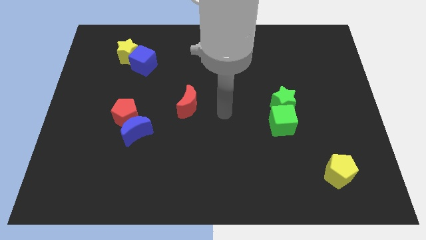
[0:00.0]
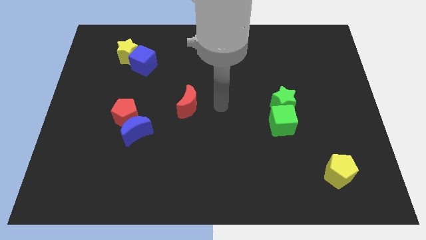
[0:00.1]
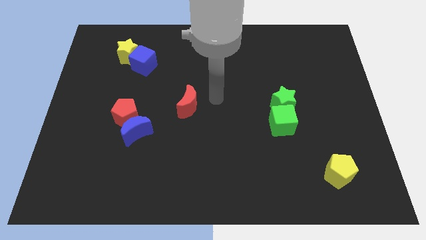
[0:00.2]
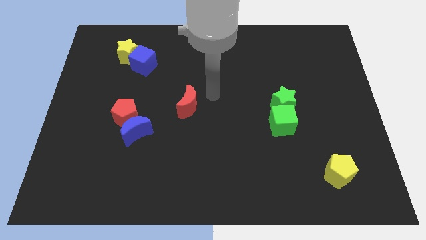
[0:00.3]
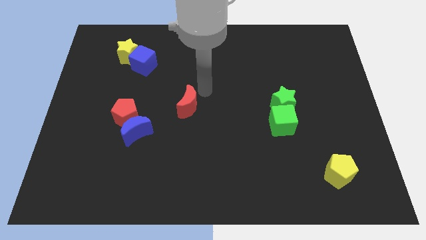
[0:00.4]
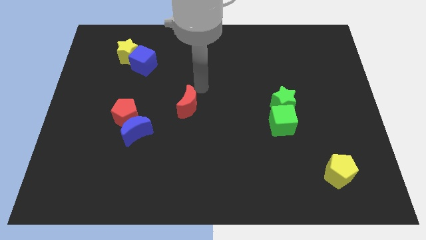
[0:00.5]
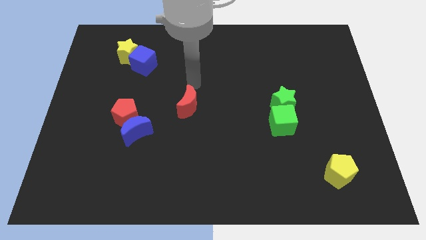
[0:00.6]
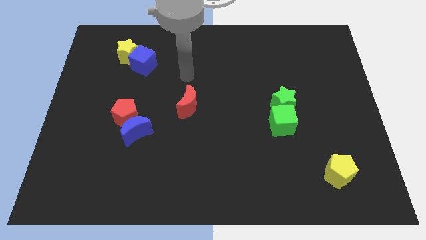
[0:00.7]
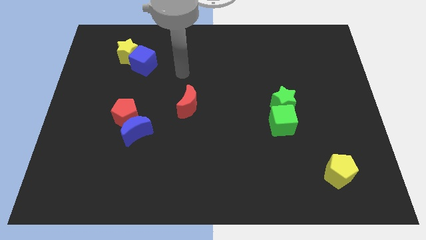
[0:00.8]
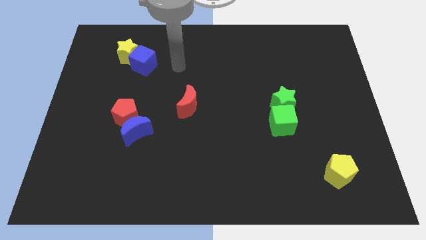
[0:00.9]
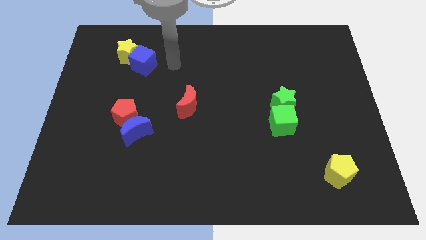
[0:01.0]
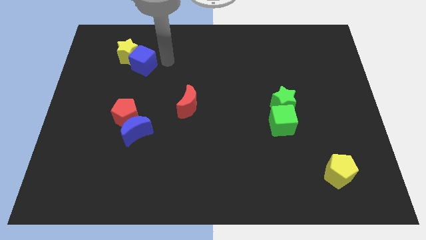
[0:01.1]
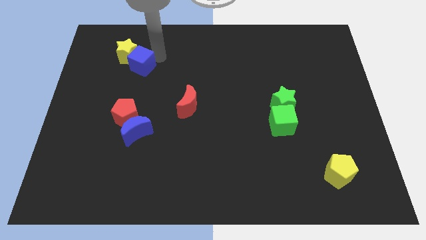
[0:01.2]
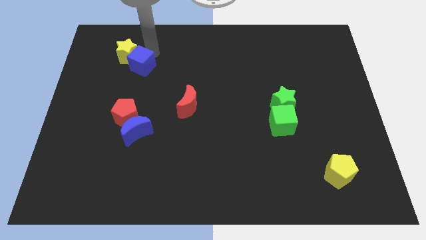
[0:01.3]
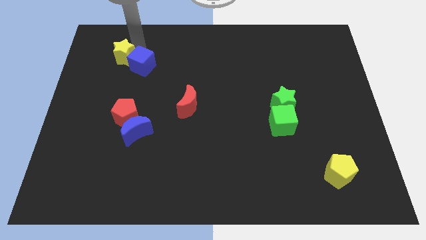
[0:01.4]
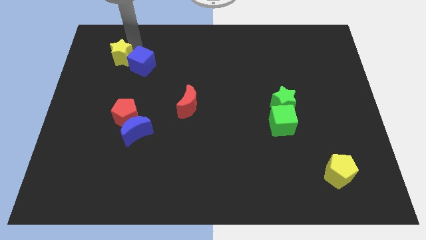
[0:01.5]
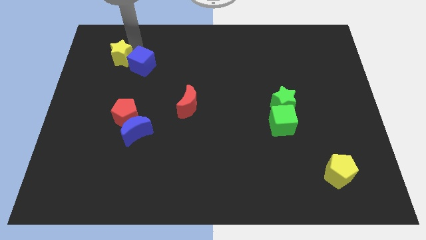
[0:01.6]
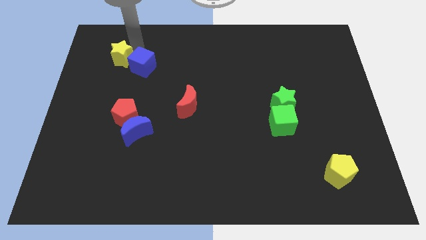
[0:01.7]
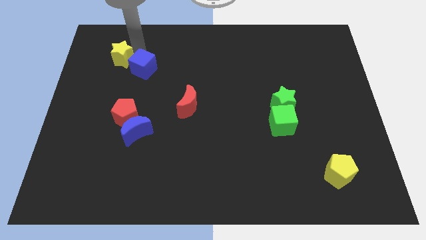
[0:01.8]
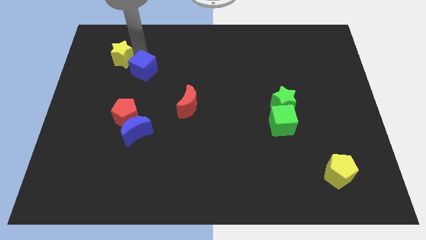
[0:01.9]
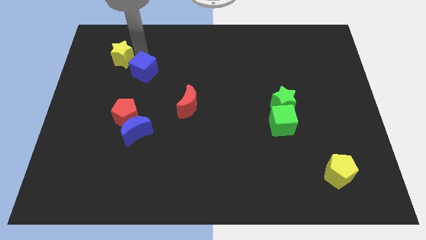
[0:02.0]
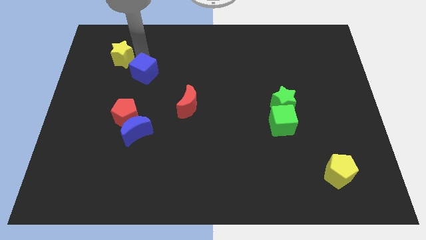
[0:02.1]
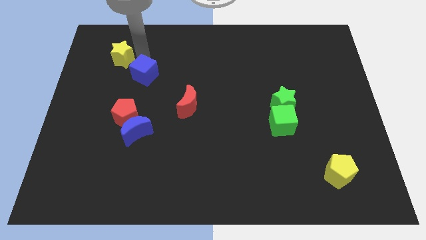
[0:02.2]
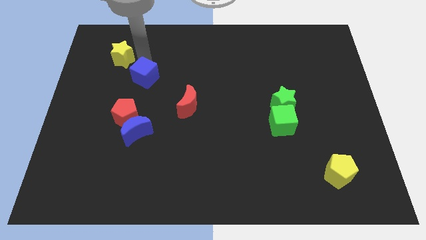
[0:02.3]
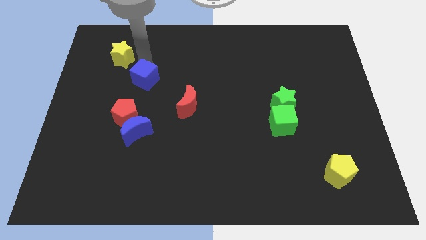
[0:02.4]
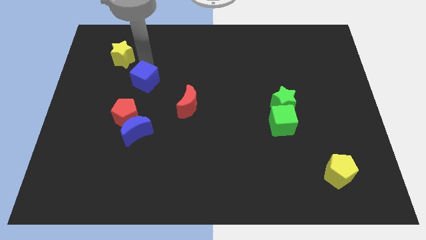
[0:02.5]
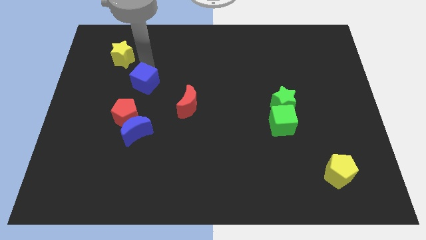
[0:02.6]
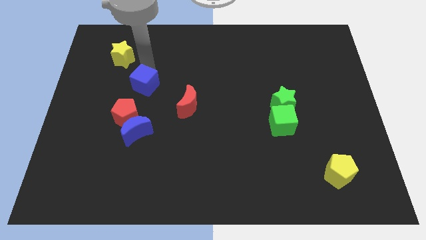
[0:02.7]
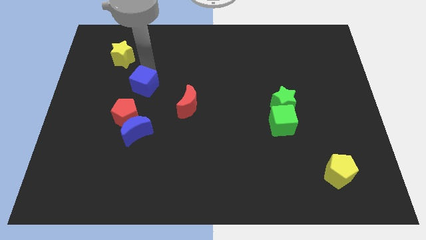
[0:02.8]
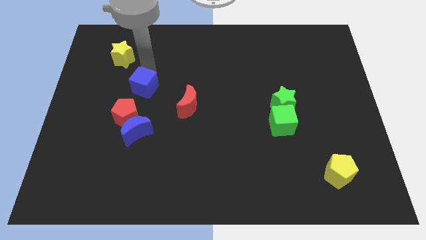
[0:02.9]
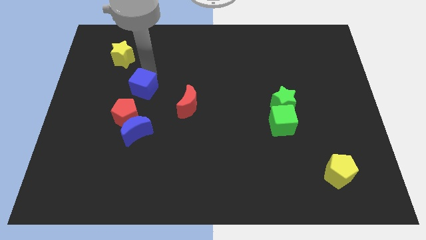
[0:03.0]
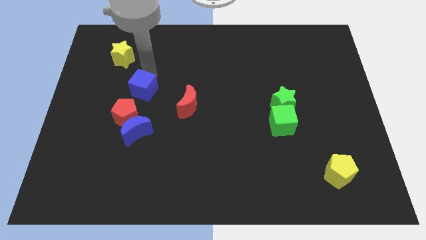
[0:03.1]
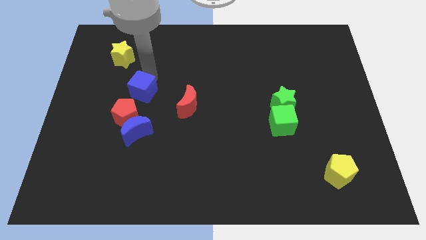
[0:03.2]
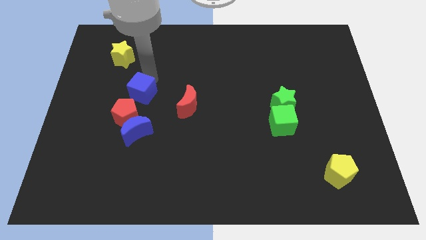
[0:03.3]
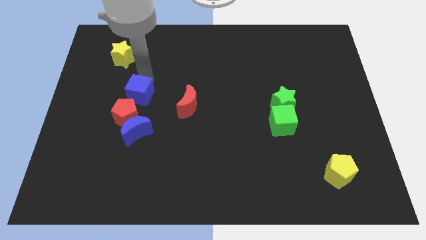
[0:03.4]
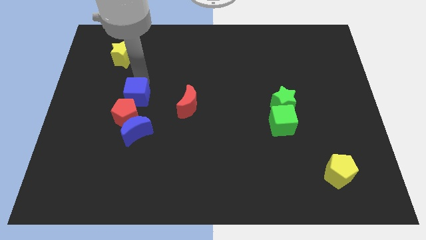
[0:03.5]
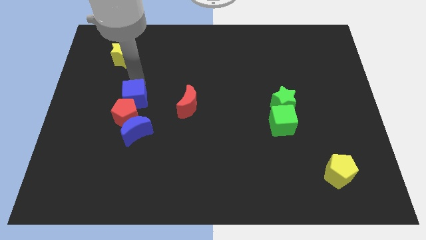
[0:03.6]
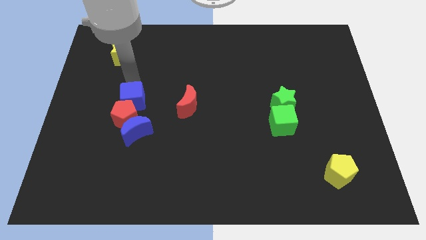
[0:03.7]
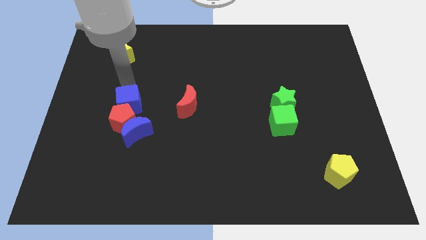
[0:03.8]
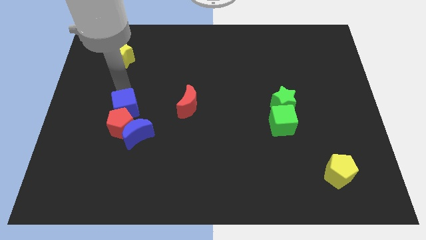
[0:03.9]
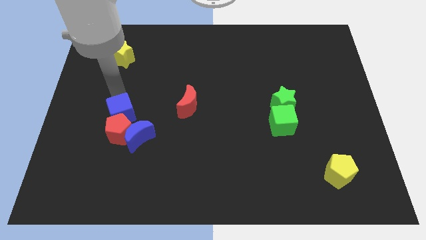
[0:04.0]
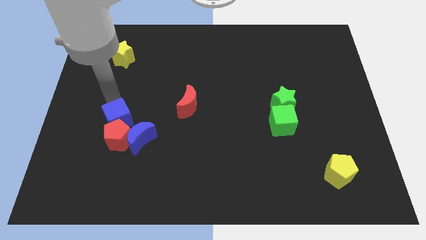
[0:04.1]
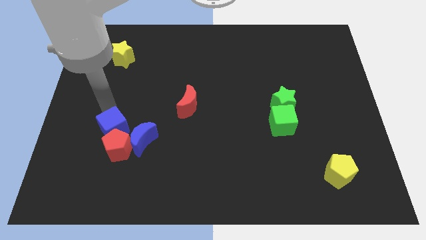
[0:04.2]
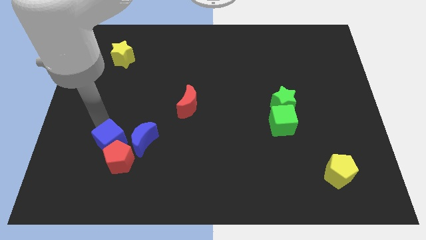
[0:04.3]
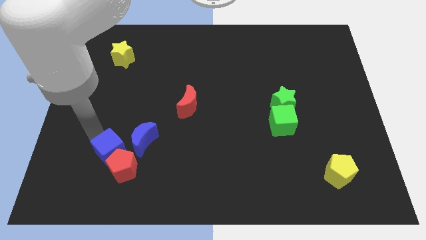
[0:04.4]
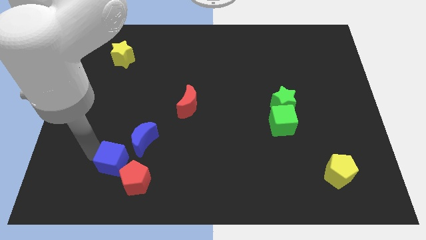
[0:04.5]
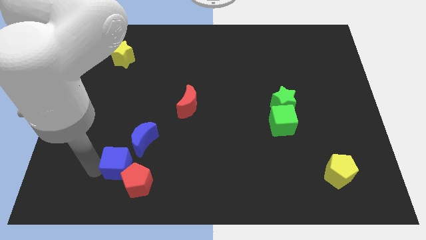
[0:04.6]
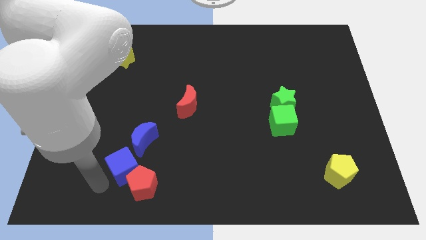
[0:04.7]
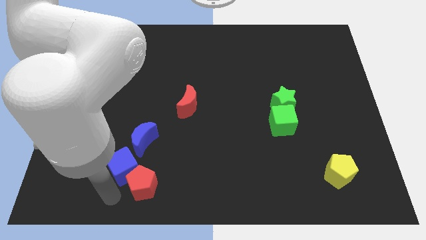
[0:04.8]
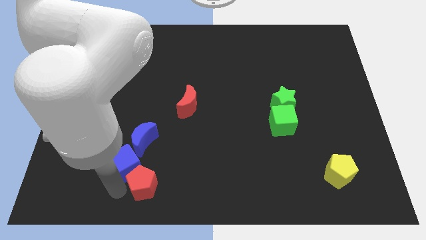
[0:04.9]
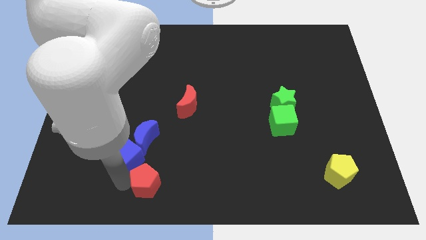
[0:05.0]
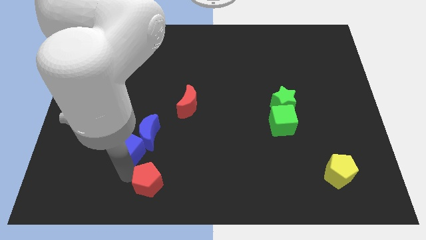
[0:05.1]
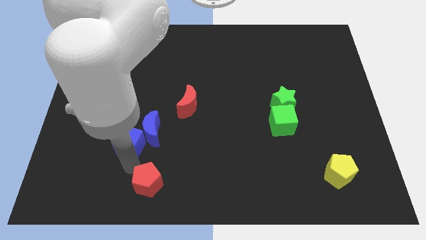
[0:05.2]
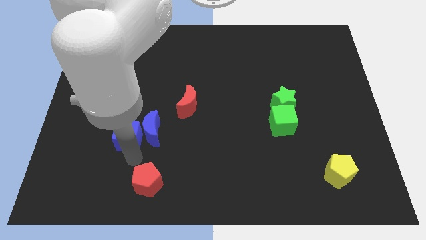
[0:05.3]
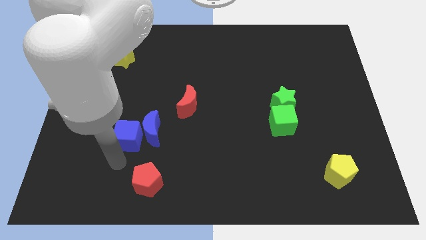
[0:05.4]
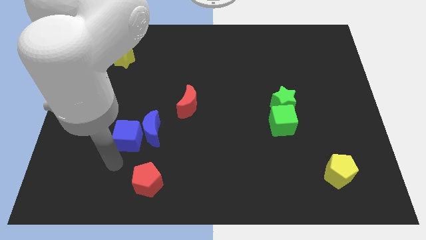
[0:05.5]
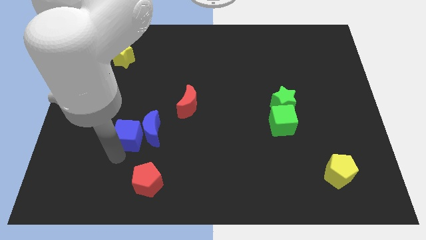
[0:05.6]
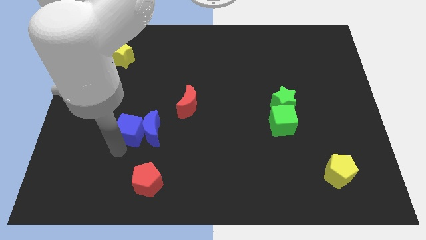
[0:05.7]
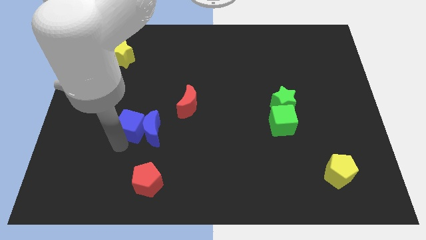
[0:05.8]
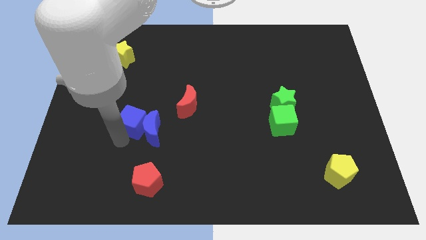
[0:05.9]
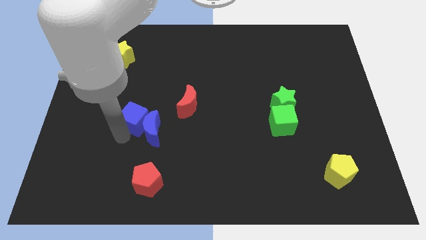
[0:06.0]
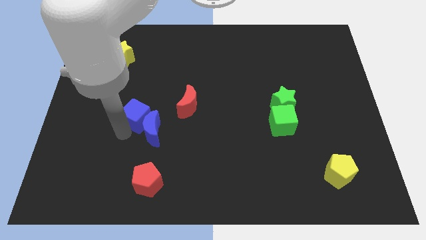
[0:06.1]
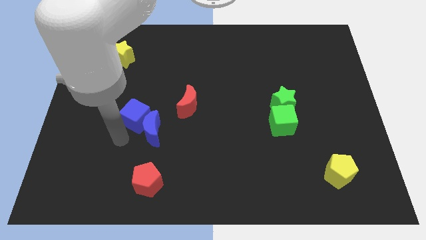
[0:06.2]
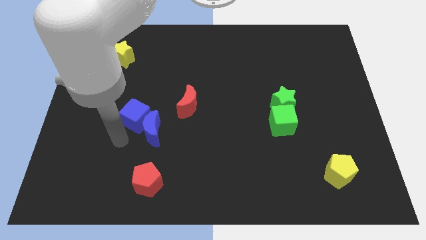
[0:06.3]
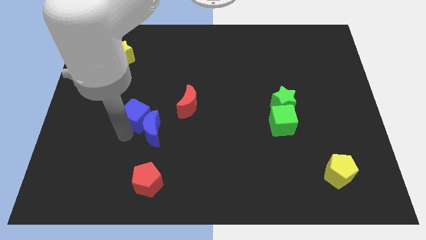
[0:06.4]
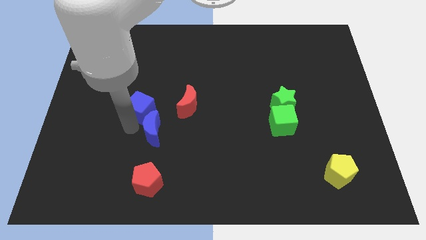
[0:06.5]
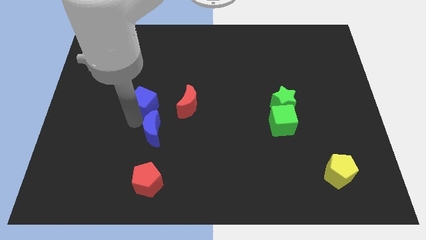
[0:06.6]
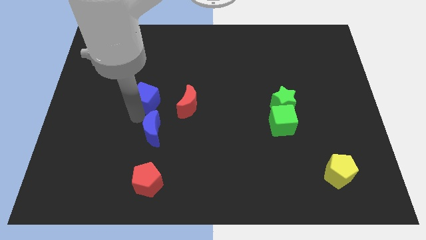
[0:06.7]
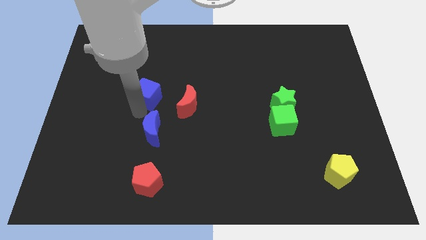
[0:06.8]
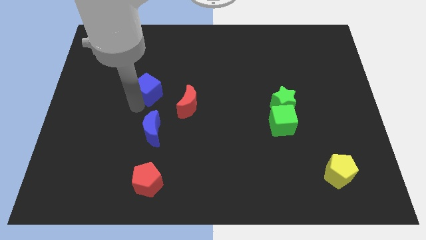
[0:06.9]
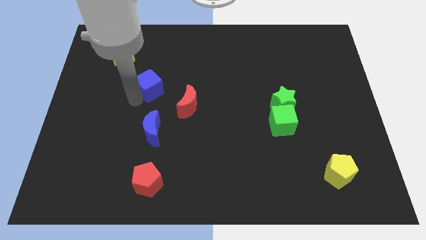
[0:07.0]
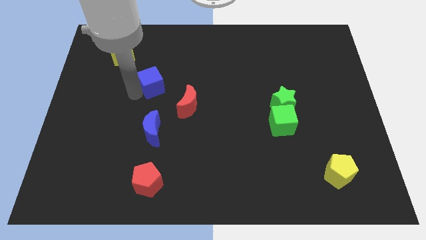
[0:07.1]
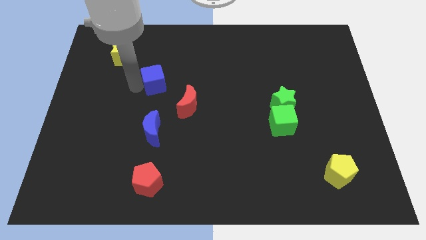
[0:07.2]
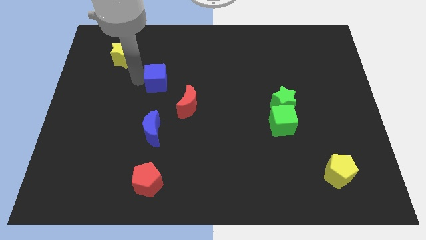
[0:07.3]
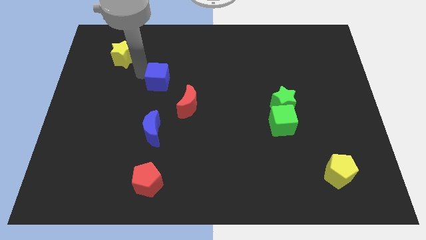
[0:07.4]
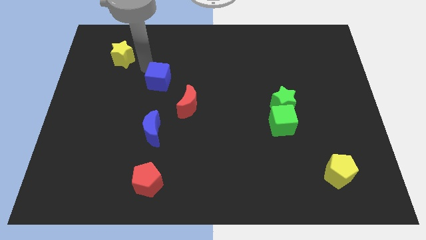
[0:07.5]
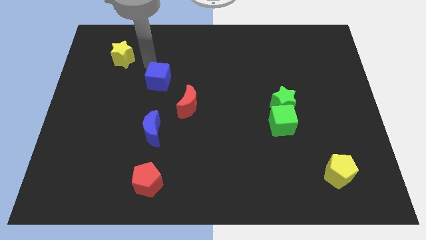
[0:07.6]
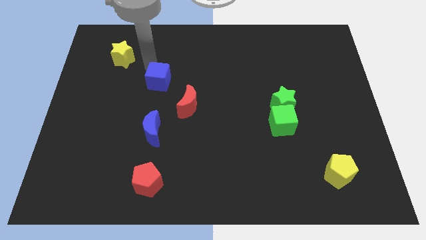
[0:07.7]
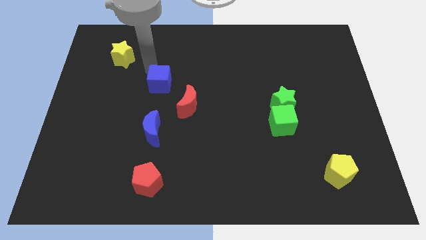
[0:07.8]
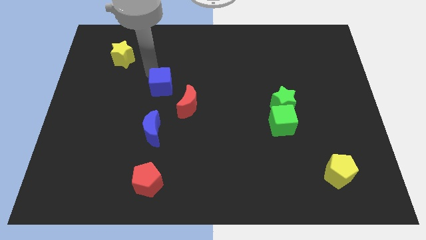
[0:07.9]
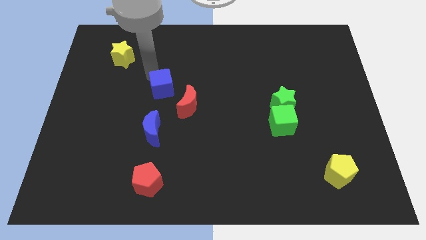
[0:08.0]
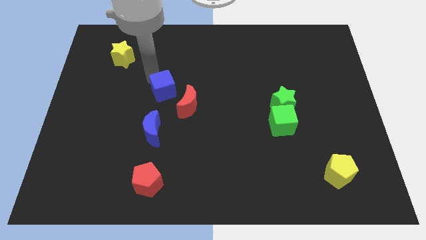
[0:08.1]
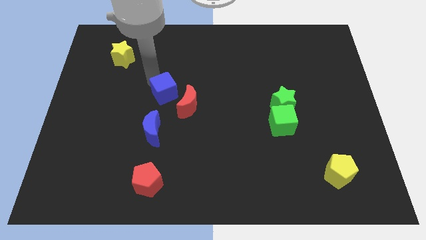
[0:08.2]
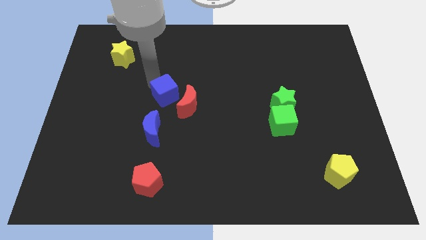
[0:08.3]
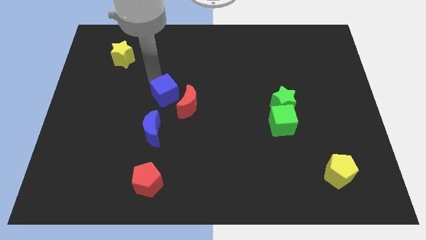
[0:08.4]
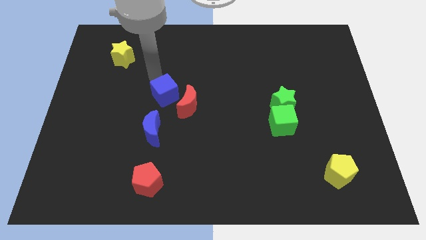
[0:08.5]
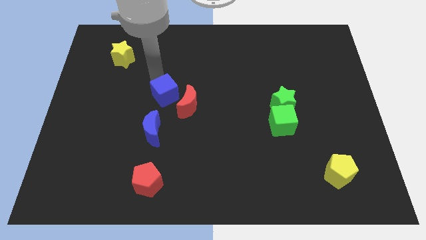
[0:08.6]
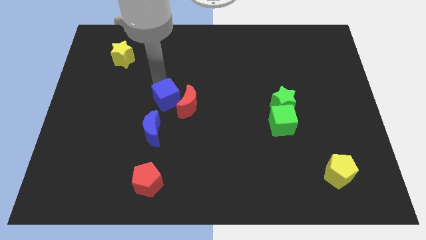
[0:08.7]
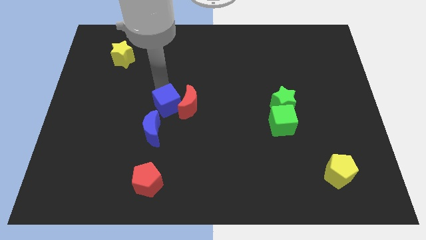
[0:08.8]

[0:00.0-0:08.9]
move the blue cube to the top right of the blue moon
